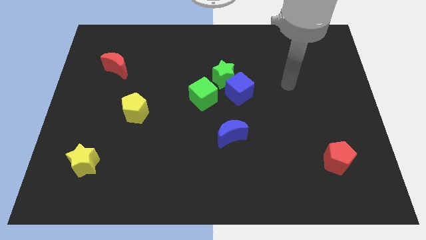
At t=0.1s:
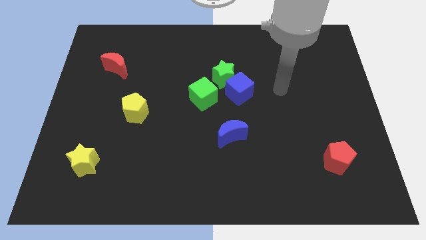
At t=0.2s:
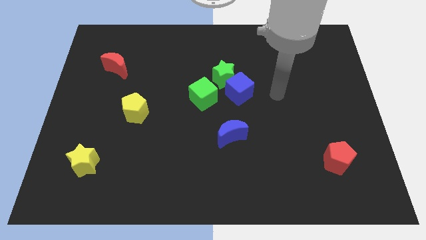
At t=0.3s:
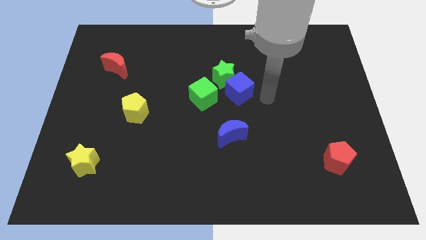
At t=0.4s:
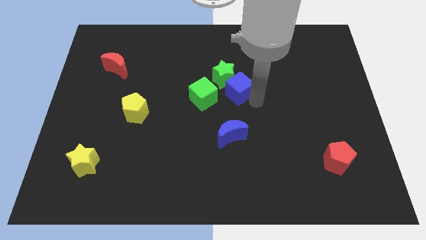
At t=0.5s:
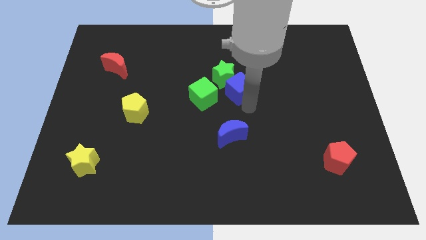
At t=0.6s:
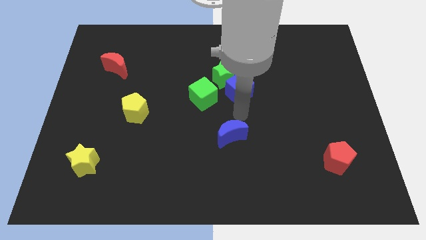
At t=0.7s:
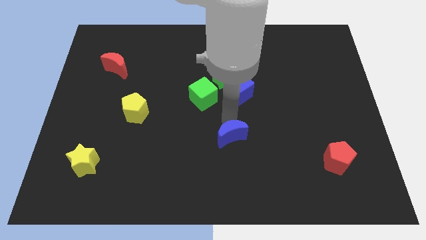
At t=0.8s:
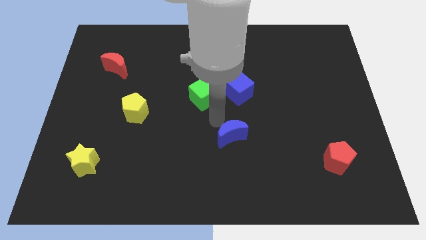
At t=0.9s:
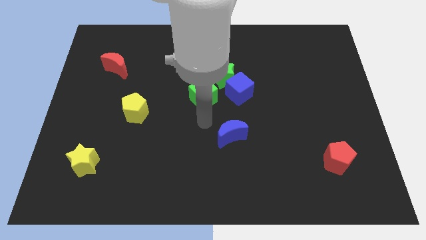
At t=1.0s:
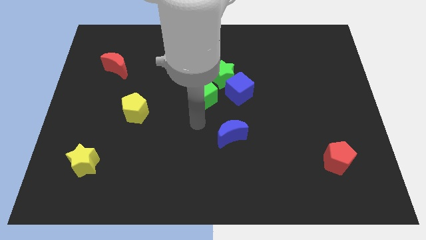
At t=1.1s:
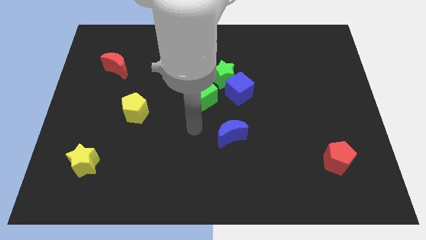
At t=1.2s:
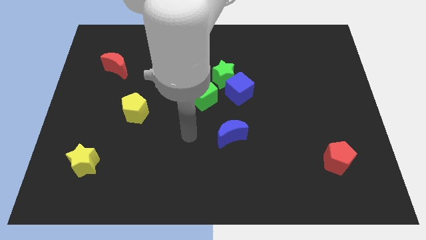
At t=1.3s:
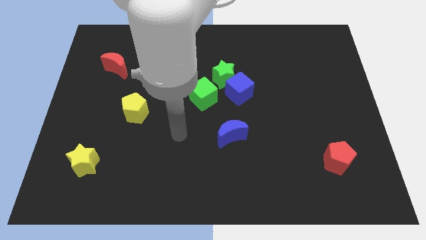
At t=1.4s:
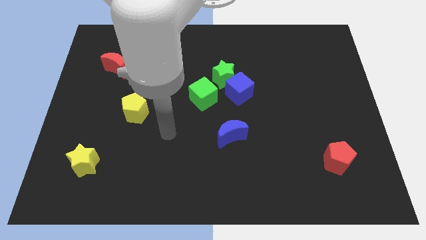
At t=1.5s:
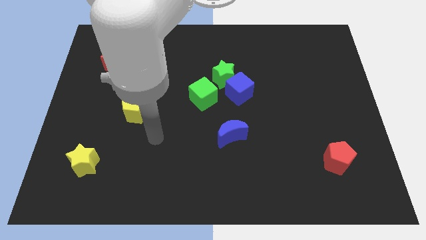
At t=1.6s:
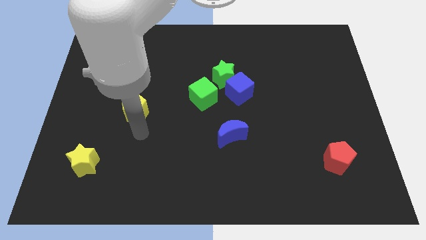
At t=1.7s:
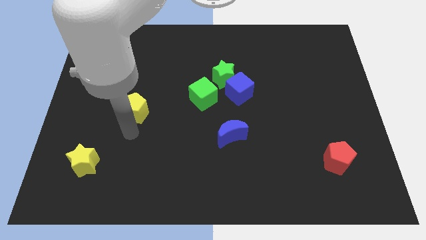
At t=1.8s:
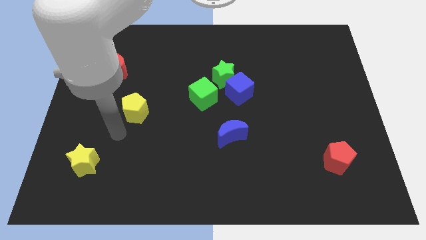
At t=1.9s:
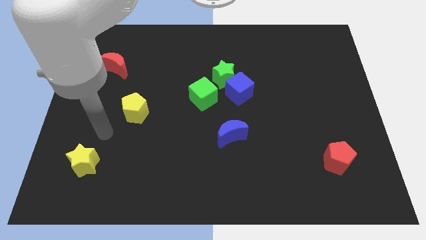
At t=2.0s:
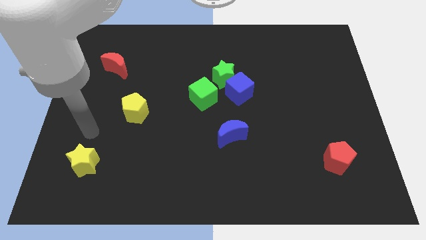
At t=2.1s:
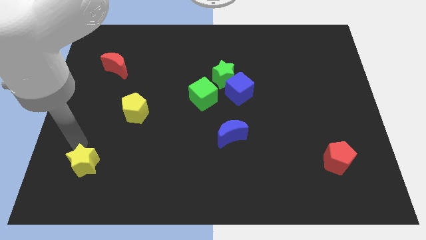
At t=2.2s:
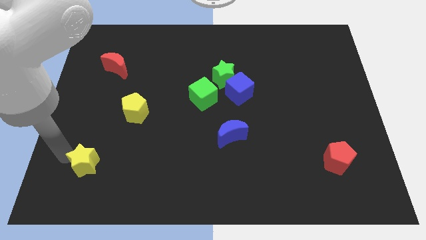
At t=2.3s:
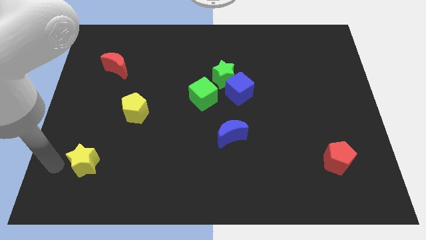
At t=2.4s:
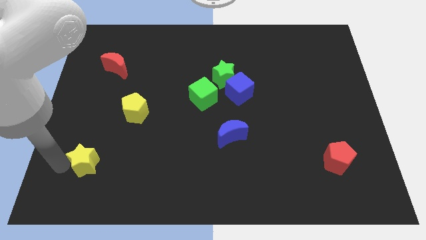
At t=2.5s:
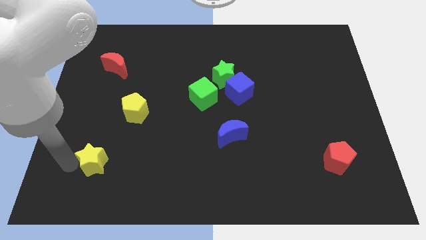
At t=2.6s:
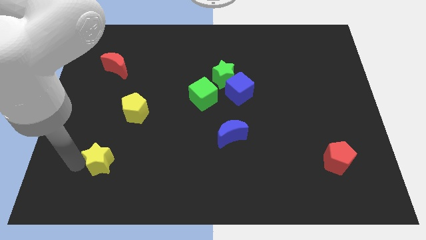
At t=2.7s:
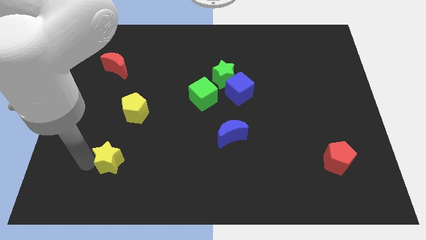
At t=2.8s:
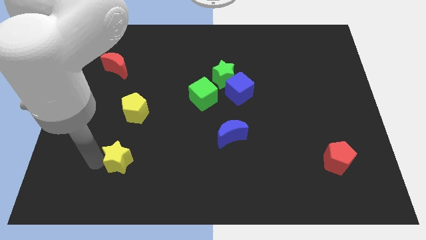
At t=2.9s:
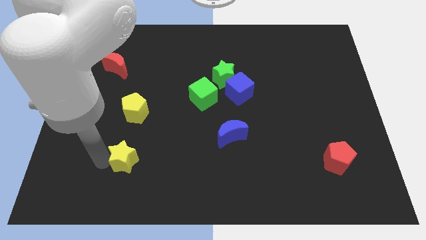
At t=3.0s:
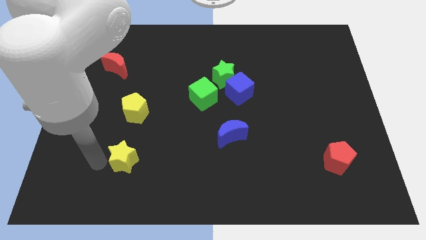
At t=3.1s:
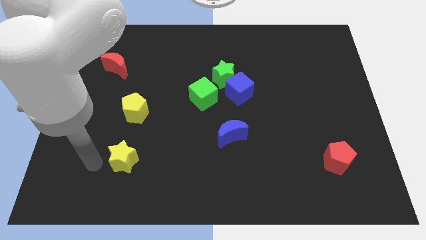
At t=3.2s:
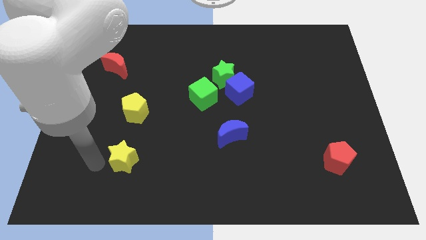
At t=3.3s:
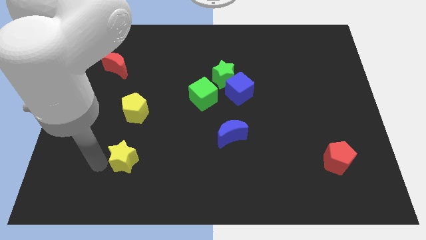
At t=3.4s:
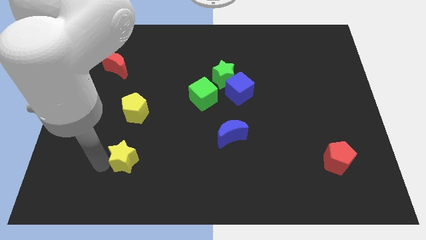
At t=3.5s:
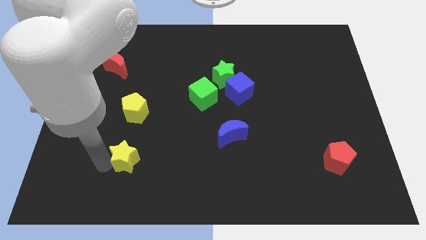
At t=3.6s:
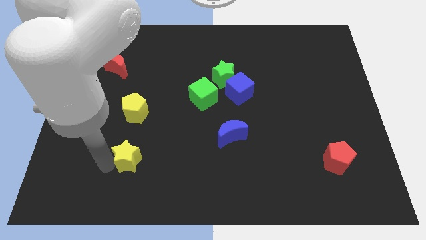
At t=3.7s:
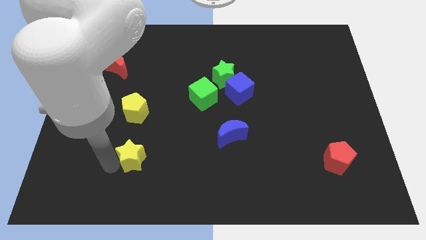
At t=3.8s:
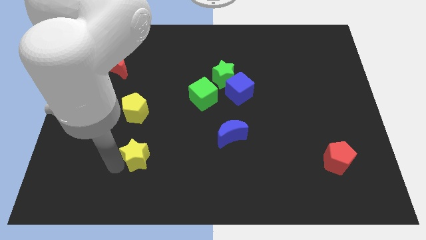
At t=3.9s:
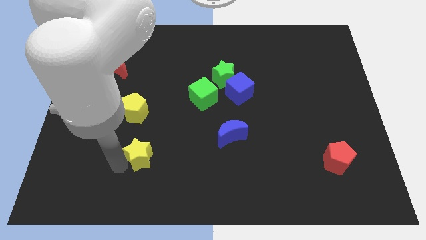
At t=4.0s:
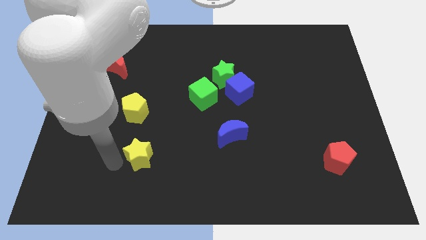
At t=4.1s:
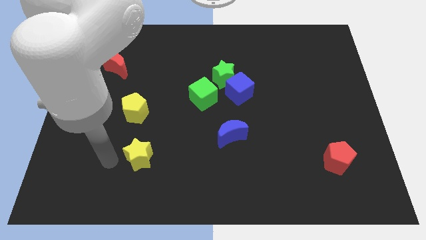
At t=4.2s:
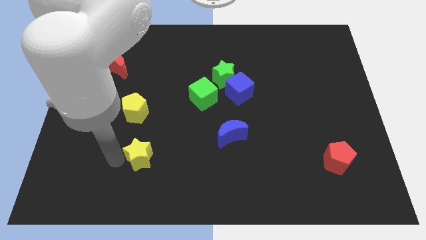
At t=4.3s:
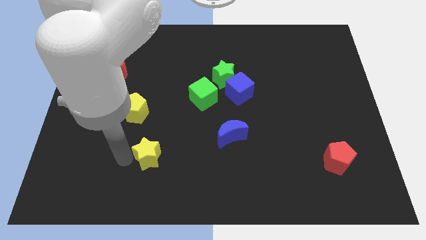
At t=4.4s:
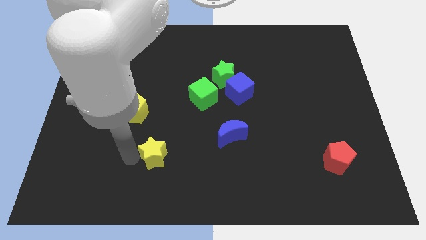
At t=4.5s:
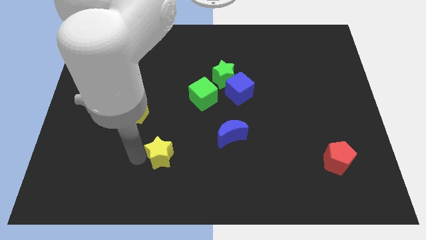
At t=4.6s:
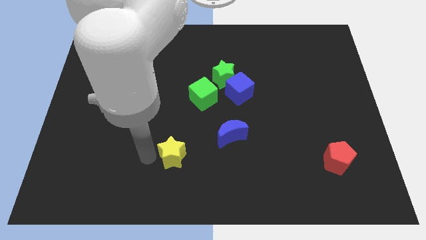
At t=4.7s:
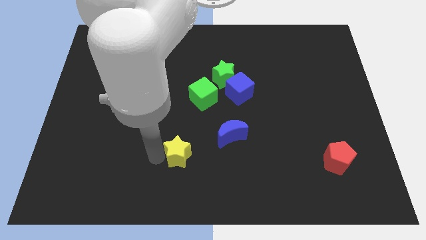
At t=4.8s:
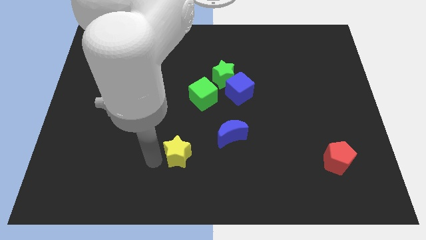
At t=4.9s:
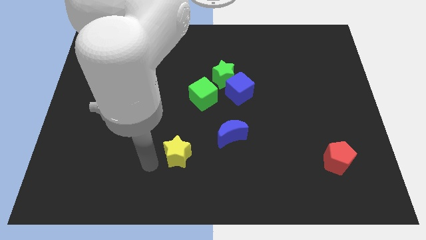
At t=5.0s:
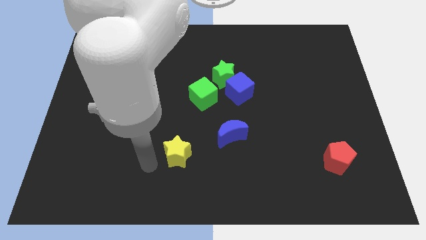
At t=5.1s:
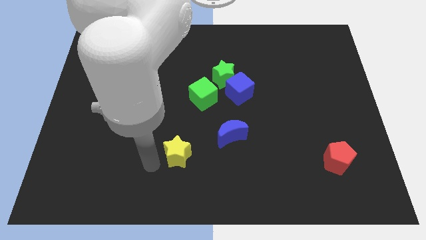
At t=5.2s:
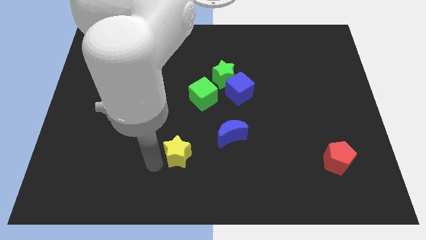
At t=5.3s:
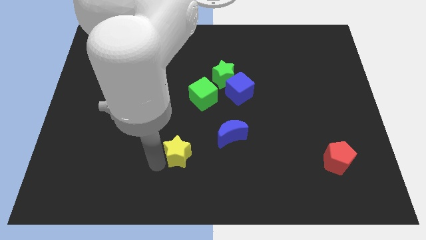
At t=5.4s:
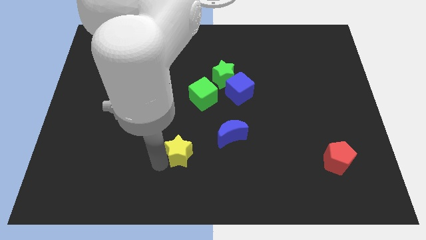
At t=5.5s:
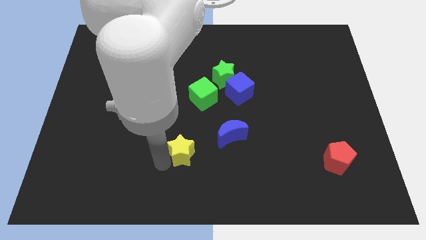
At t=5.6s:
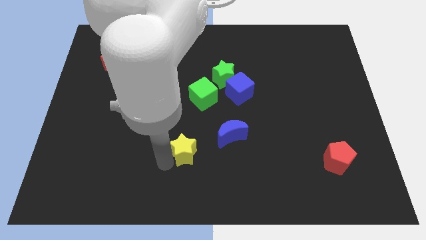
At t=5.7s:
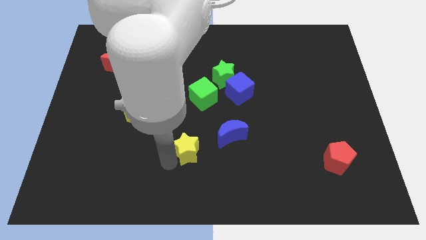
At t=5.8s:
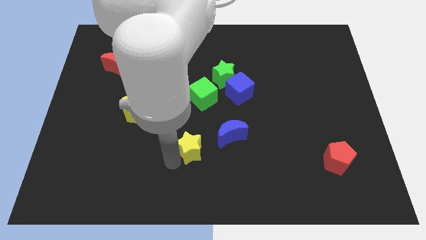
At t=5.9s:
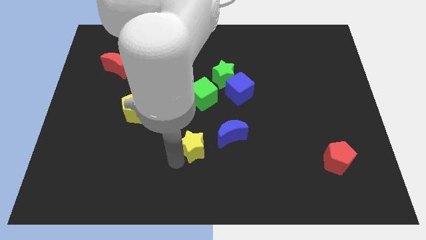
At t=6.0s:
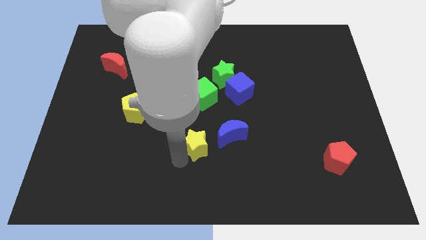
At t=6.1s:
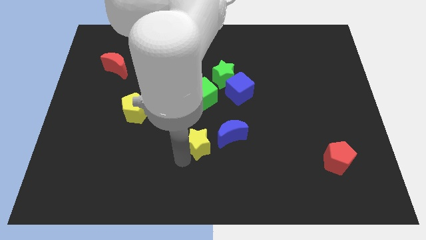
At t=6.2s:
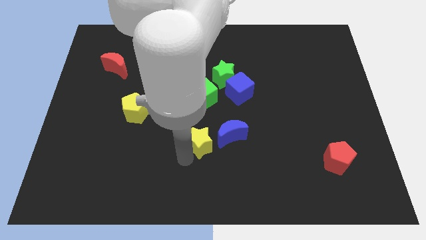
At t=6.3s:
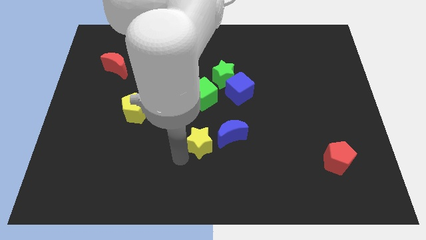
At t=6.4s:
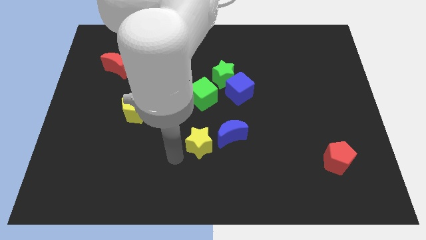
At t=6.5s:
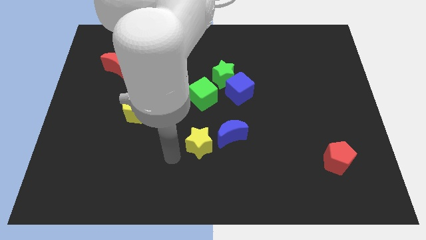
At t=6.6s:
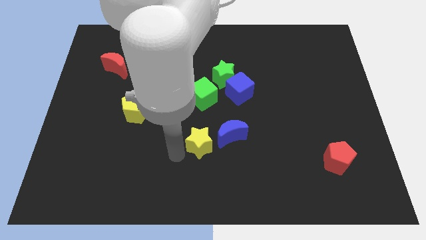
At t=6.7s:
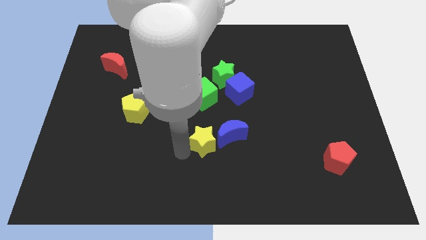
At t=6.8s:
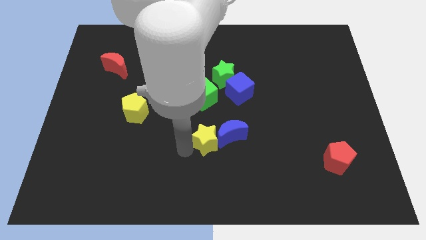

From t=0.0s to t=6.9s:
move the yellow star to the blue moon
